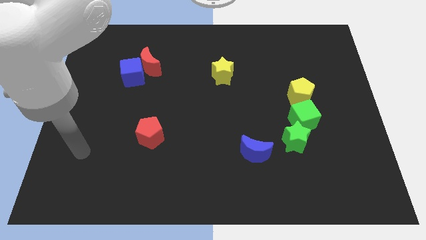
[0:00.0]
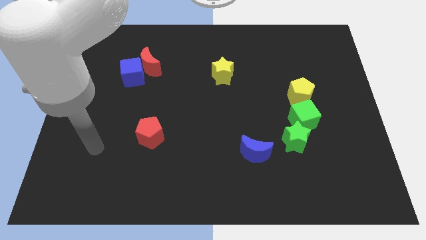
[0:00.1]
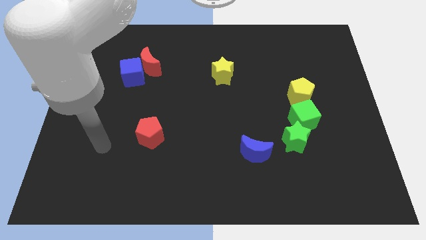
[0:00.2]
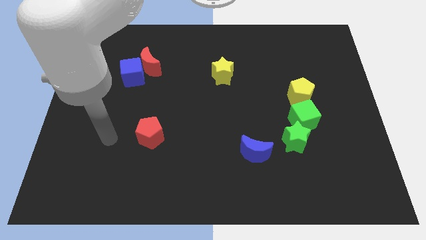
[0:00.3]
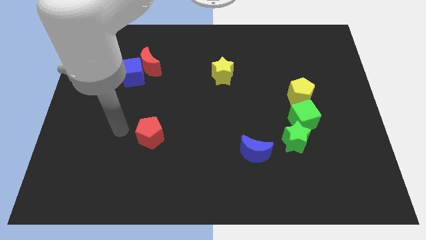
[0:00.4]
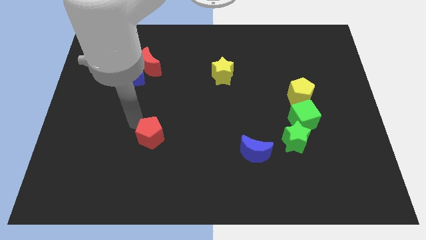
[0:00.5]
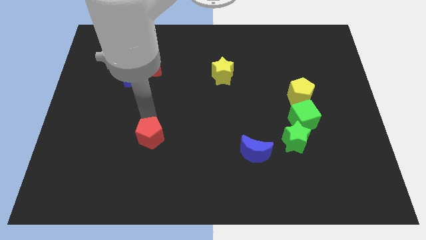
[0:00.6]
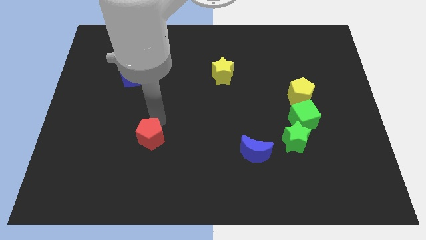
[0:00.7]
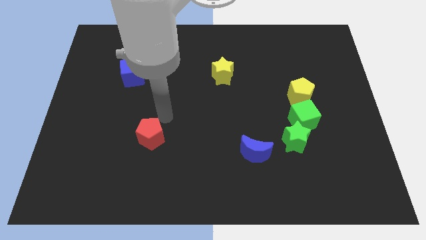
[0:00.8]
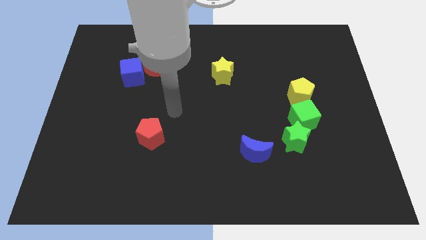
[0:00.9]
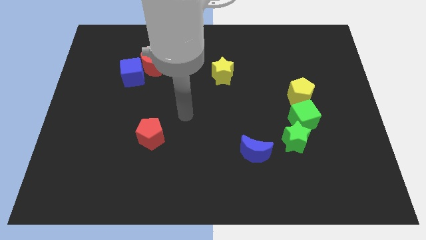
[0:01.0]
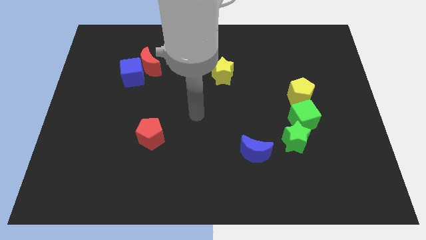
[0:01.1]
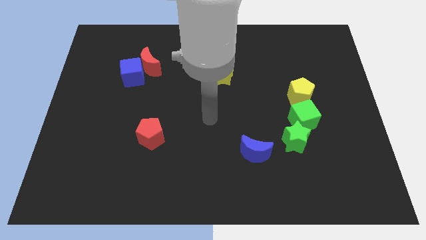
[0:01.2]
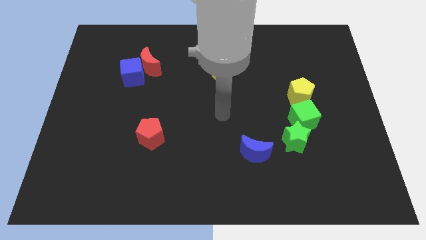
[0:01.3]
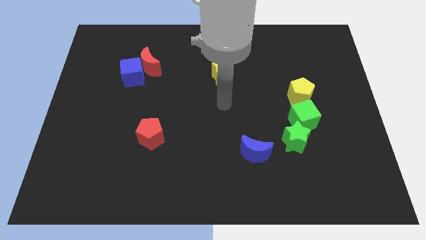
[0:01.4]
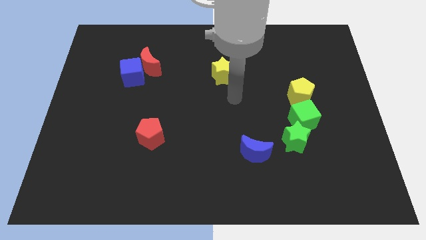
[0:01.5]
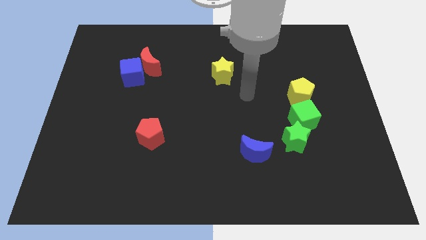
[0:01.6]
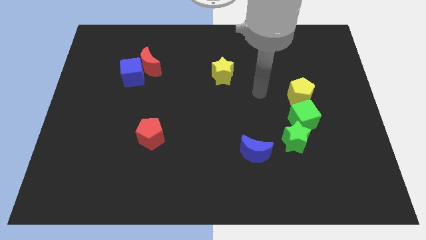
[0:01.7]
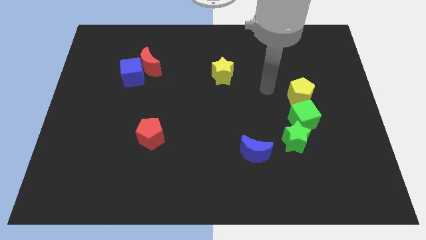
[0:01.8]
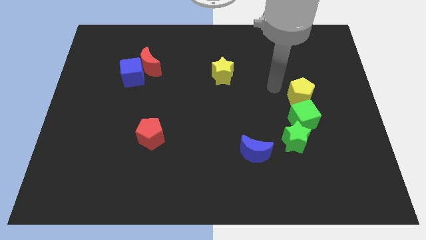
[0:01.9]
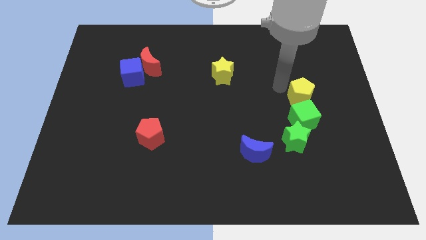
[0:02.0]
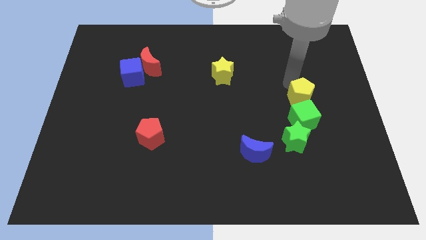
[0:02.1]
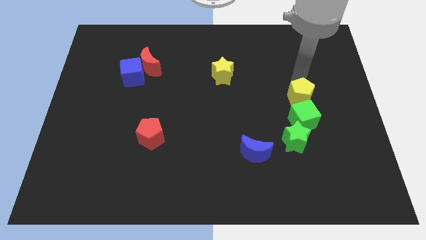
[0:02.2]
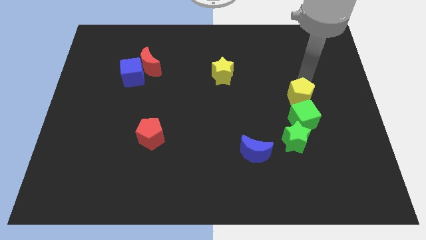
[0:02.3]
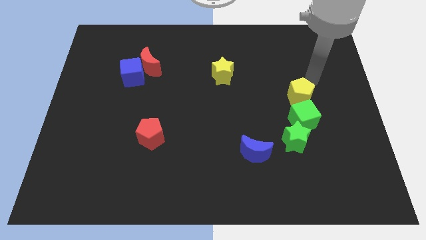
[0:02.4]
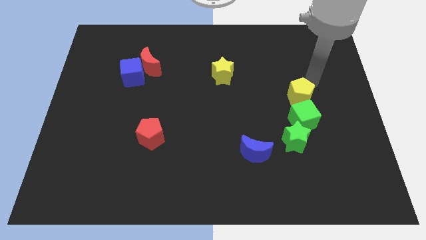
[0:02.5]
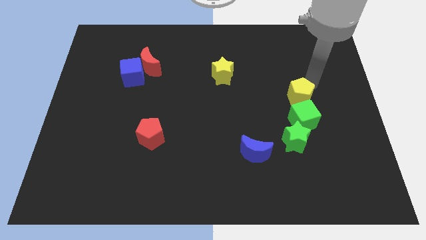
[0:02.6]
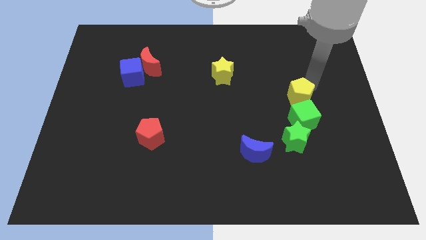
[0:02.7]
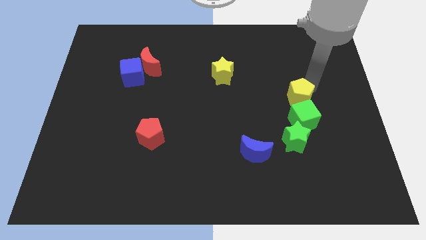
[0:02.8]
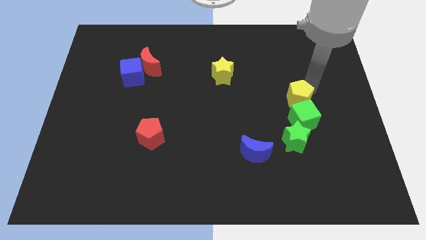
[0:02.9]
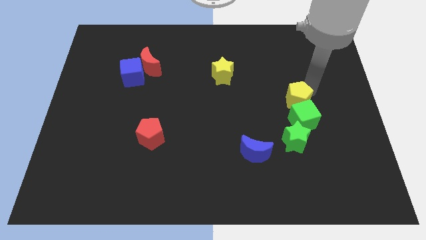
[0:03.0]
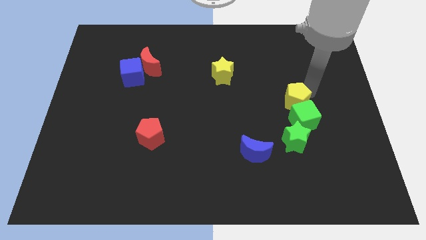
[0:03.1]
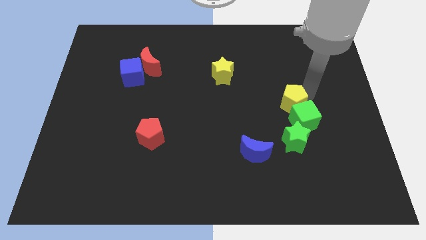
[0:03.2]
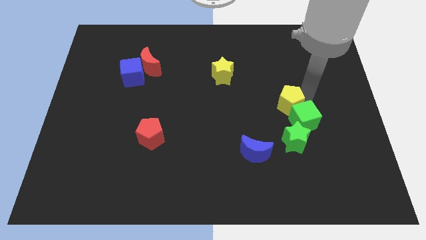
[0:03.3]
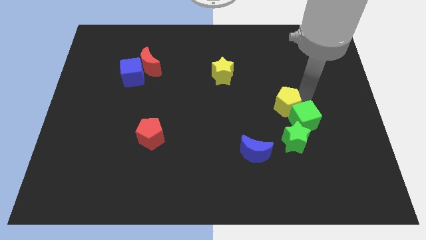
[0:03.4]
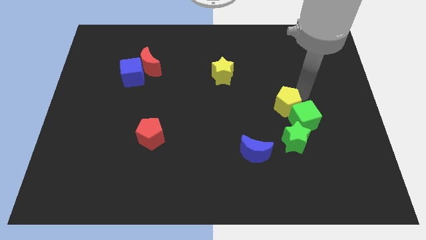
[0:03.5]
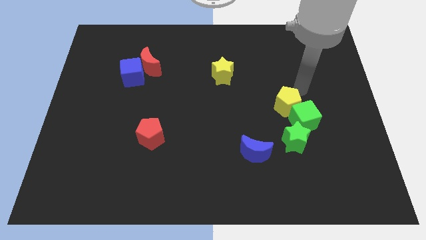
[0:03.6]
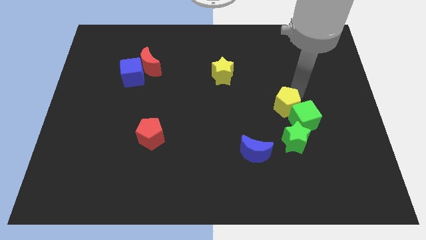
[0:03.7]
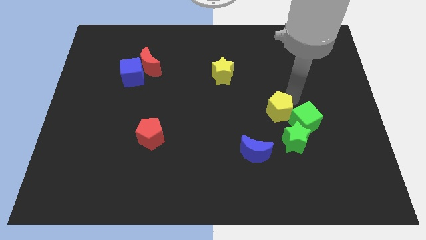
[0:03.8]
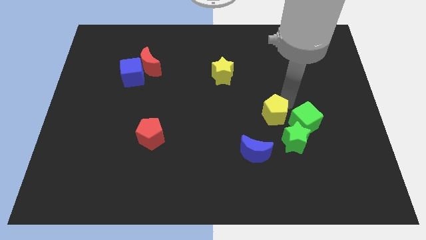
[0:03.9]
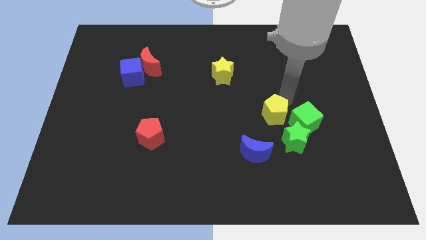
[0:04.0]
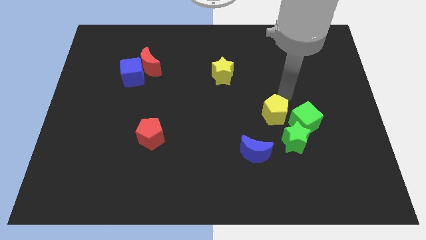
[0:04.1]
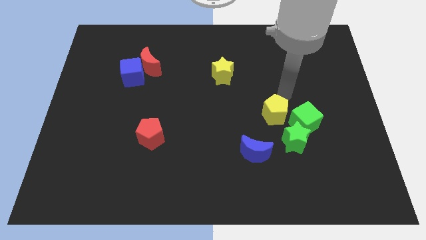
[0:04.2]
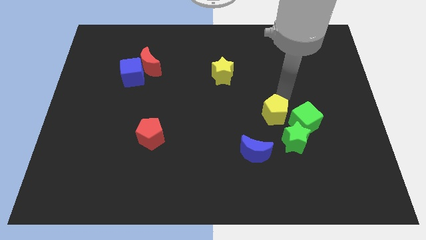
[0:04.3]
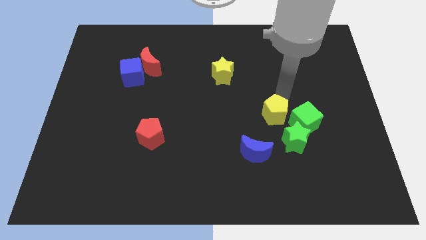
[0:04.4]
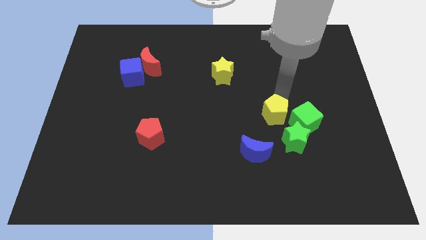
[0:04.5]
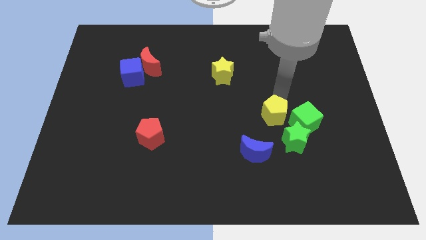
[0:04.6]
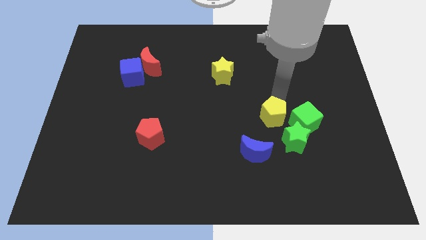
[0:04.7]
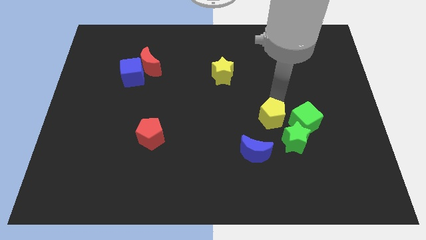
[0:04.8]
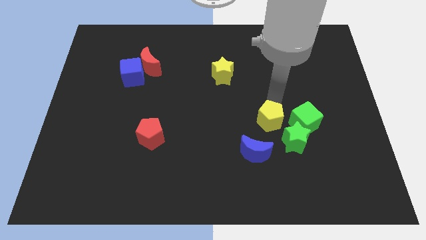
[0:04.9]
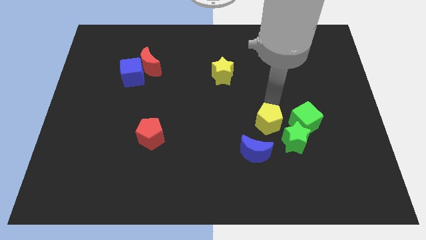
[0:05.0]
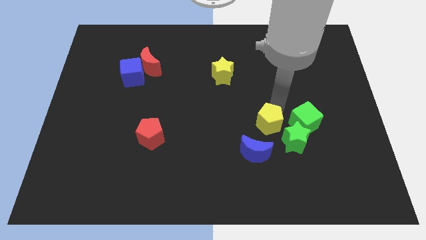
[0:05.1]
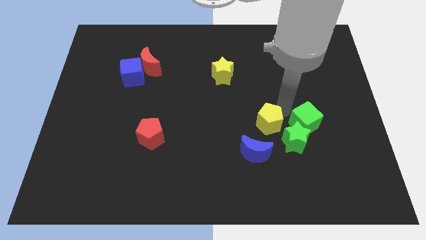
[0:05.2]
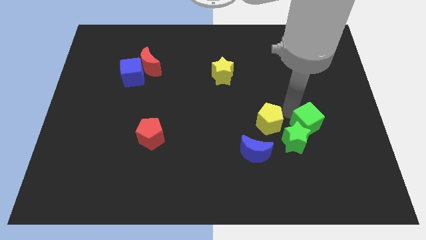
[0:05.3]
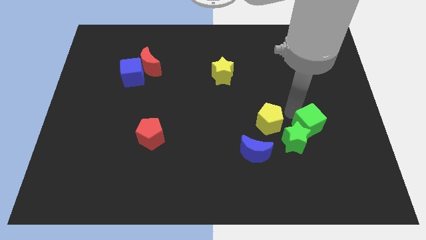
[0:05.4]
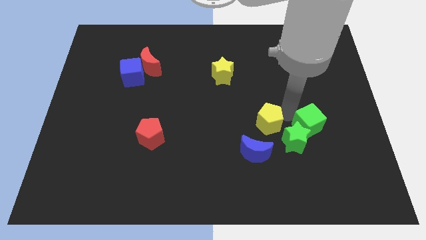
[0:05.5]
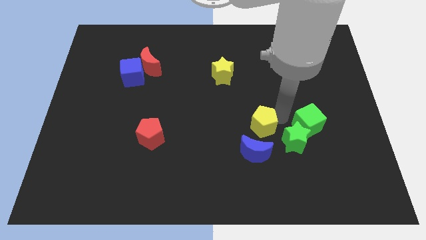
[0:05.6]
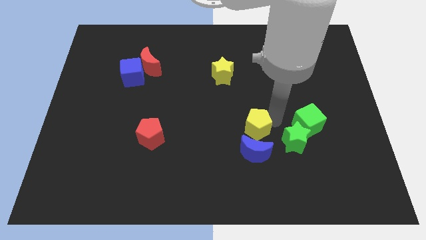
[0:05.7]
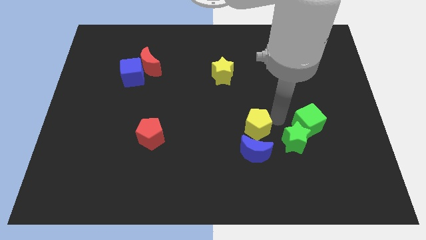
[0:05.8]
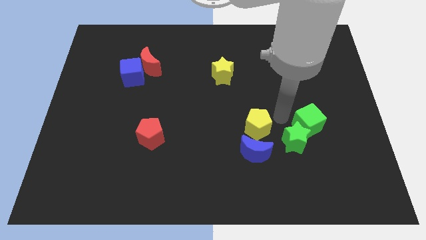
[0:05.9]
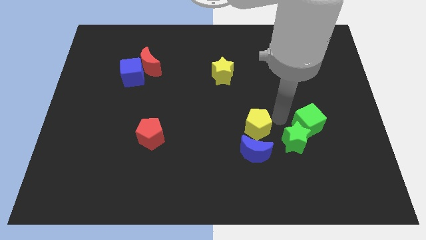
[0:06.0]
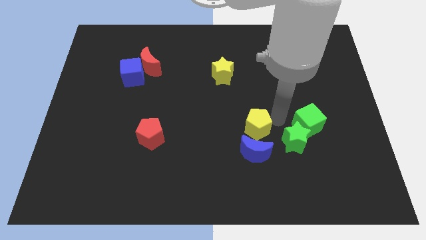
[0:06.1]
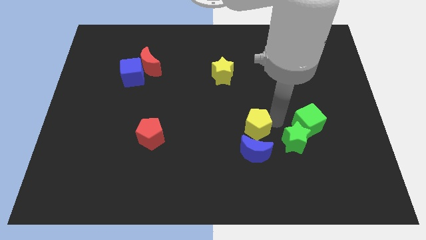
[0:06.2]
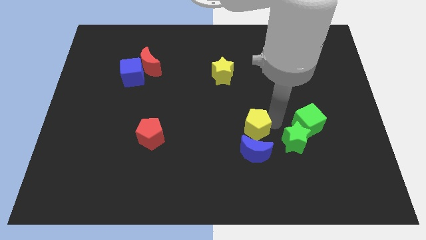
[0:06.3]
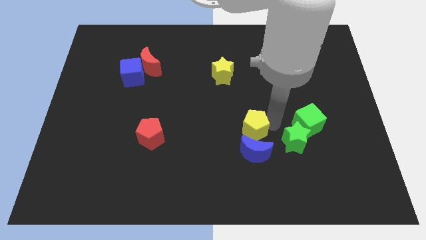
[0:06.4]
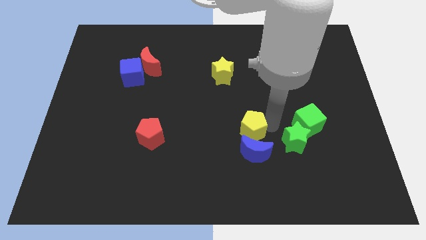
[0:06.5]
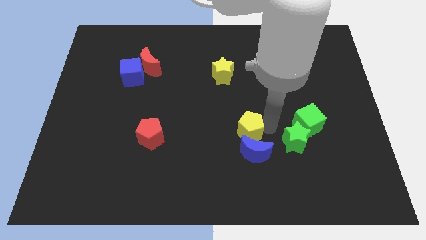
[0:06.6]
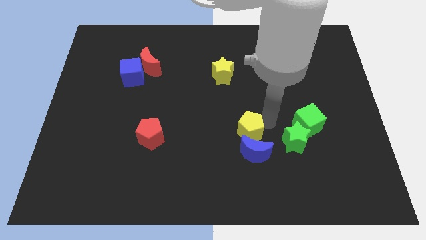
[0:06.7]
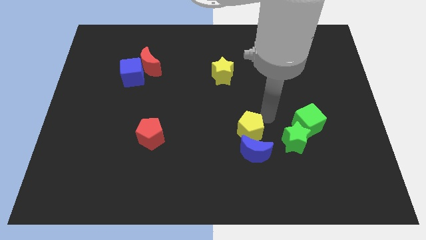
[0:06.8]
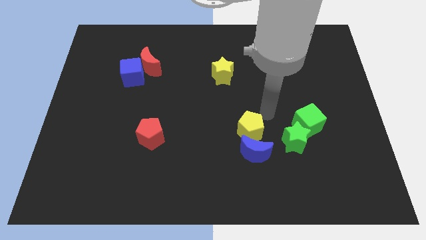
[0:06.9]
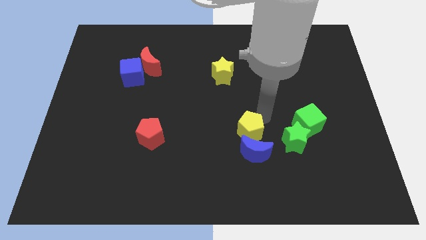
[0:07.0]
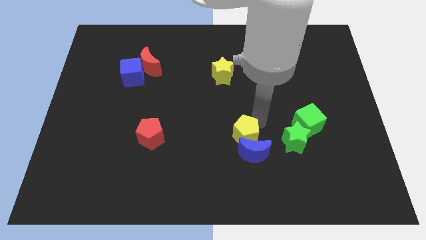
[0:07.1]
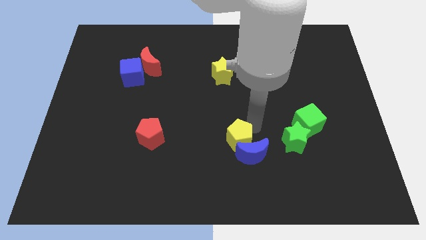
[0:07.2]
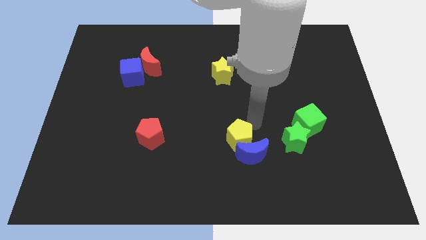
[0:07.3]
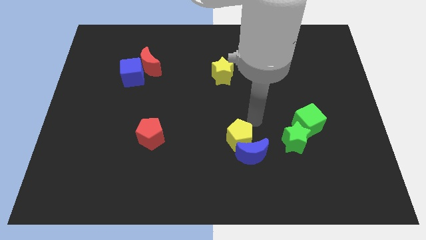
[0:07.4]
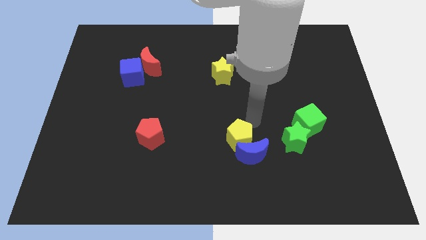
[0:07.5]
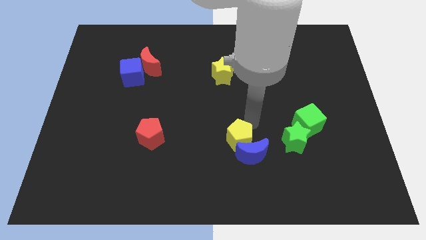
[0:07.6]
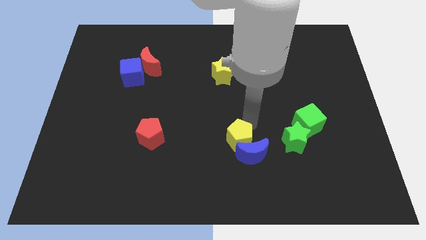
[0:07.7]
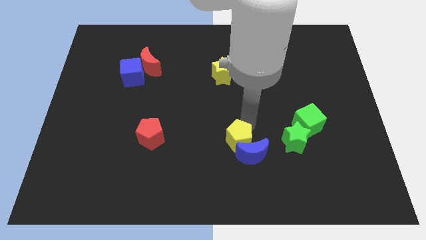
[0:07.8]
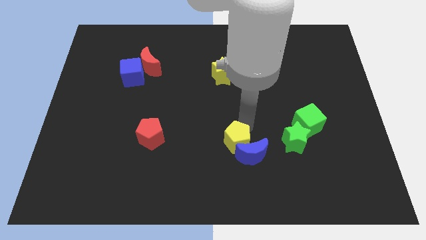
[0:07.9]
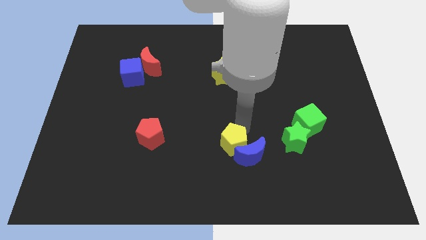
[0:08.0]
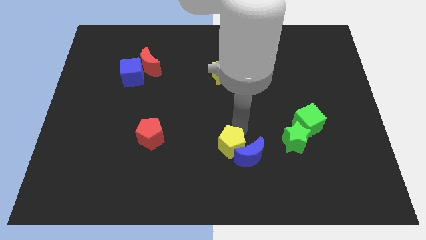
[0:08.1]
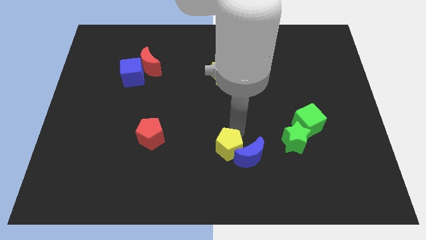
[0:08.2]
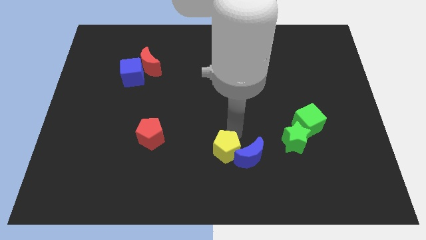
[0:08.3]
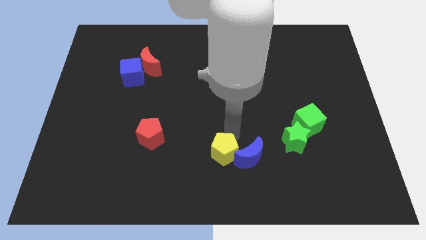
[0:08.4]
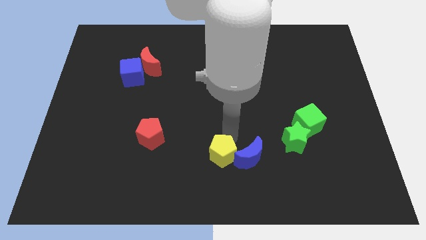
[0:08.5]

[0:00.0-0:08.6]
move the yellow pentagon to the bottom
